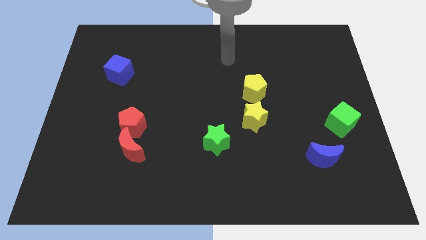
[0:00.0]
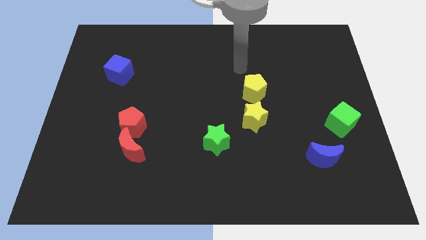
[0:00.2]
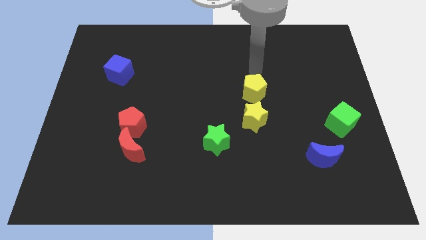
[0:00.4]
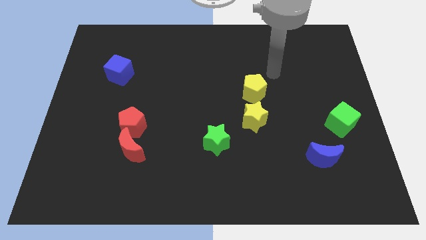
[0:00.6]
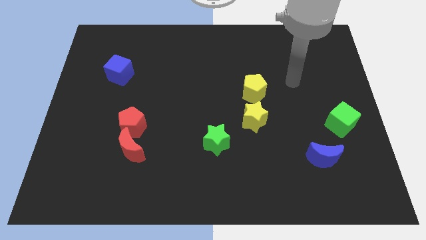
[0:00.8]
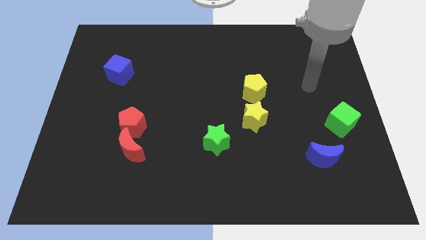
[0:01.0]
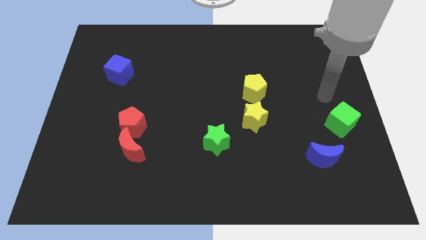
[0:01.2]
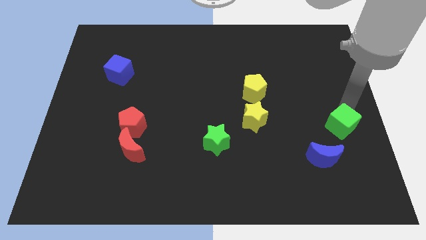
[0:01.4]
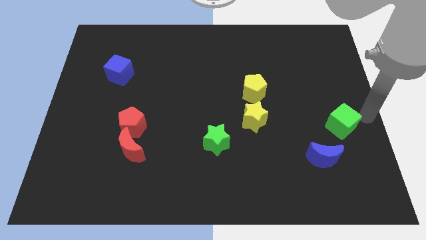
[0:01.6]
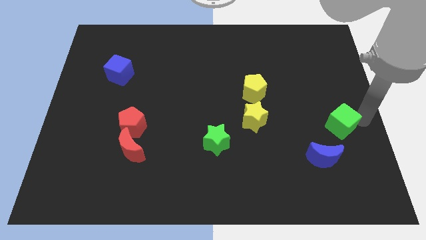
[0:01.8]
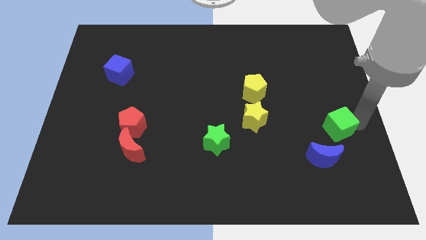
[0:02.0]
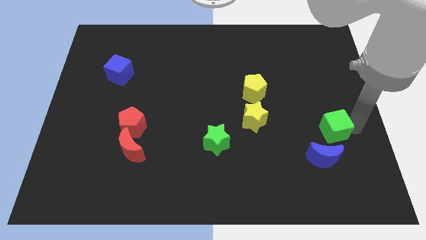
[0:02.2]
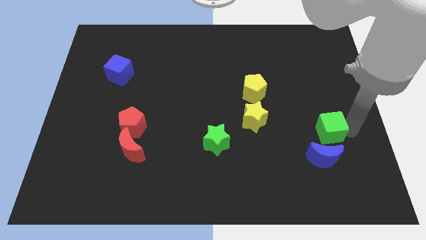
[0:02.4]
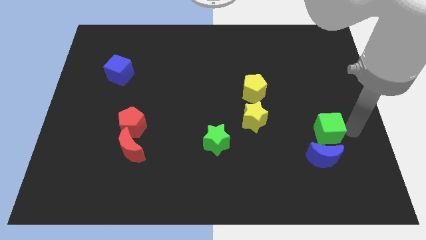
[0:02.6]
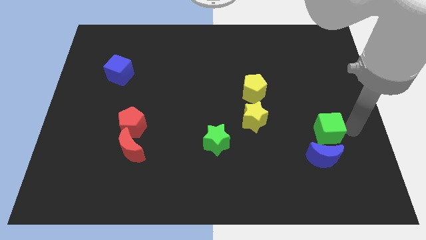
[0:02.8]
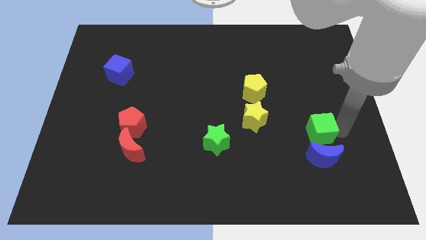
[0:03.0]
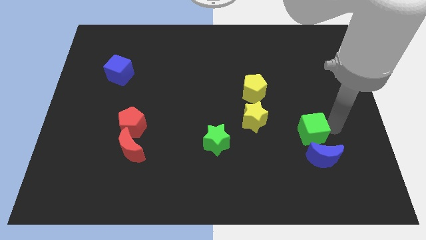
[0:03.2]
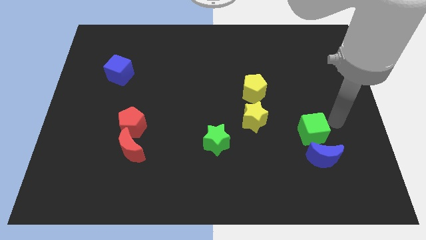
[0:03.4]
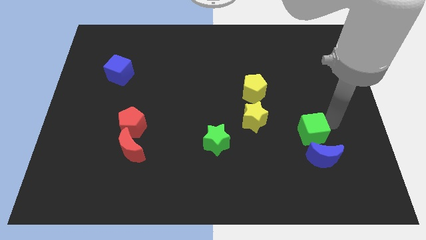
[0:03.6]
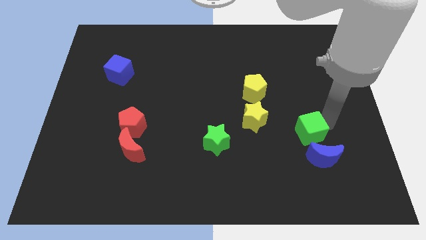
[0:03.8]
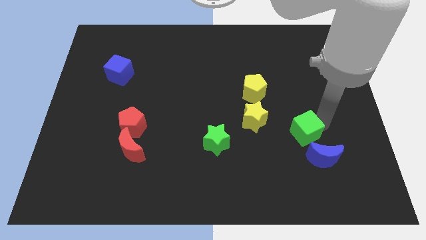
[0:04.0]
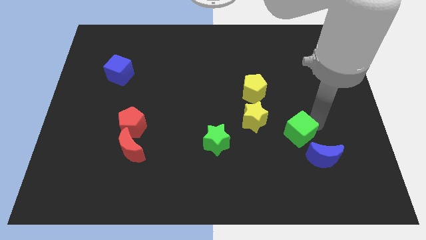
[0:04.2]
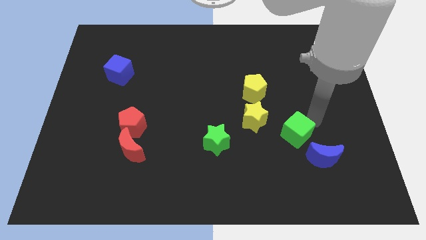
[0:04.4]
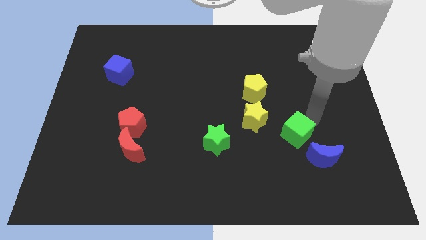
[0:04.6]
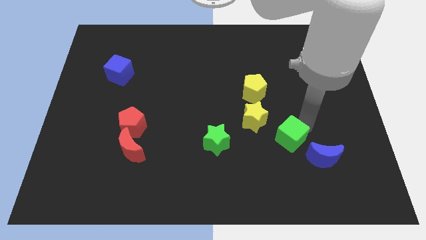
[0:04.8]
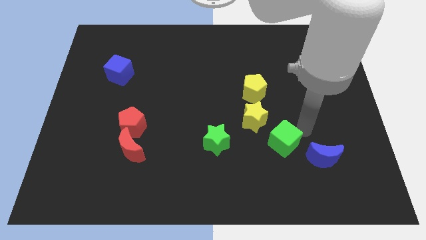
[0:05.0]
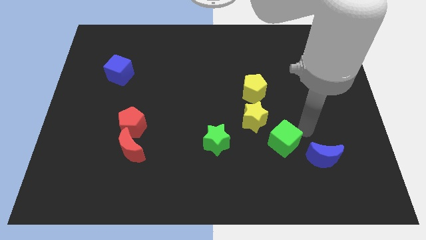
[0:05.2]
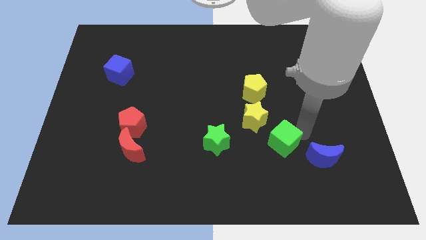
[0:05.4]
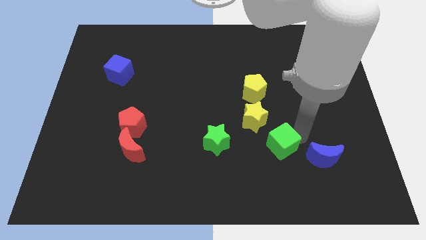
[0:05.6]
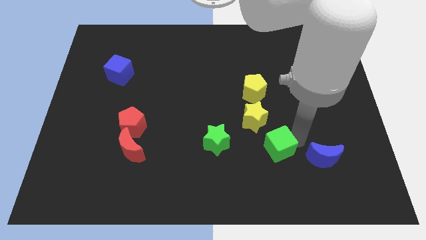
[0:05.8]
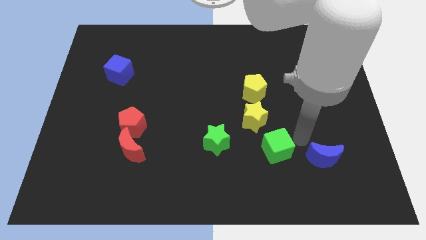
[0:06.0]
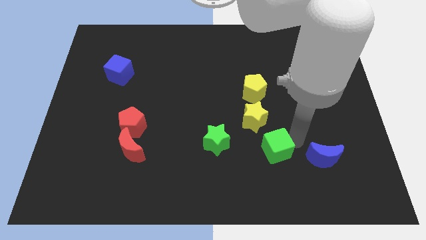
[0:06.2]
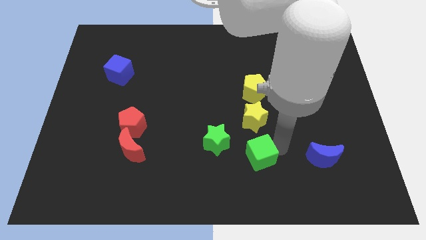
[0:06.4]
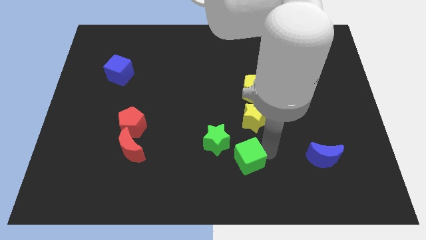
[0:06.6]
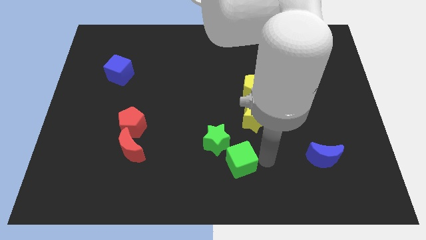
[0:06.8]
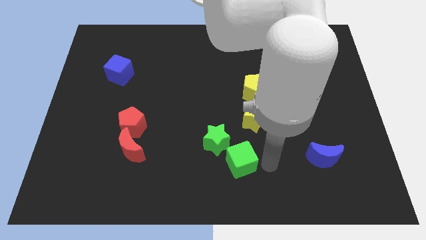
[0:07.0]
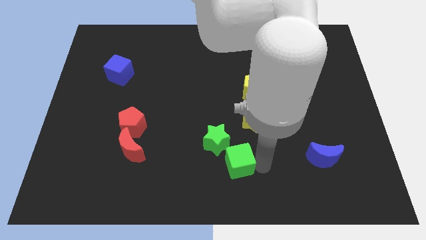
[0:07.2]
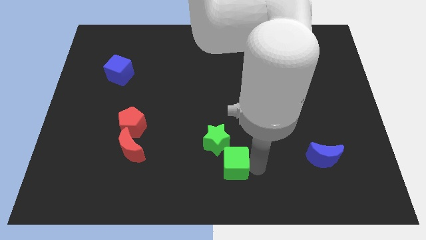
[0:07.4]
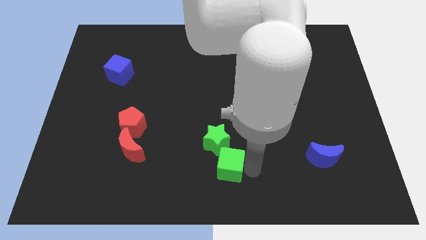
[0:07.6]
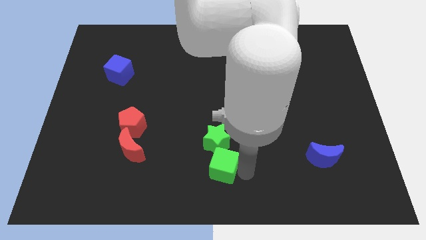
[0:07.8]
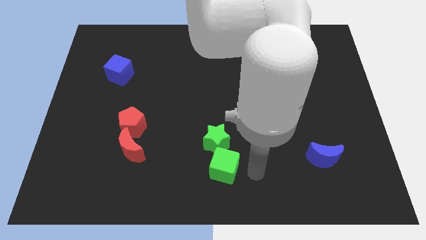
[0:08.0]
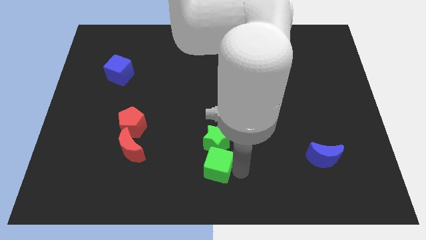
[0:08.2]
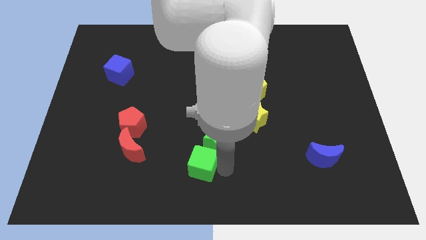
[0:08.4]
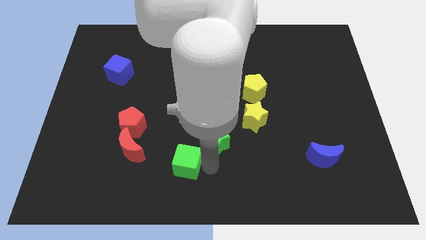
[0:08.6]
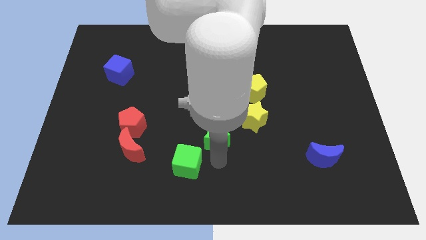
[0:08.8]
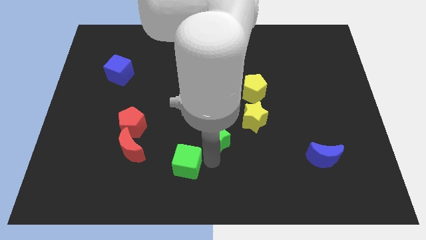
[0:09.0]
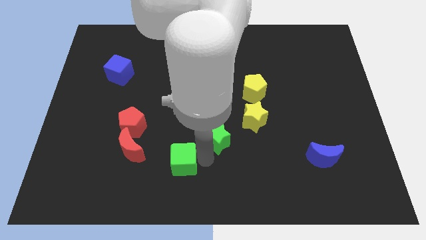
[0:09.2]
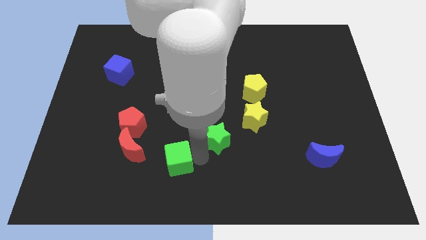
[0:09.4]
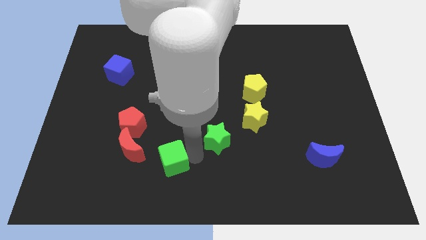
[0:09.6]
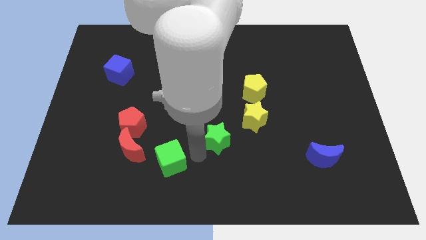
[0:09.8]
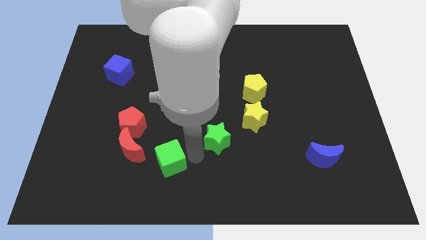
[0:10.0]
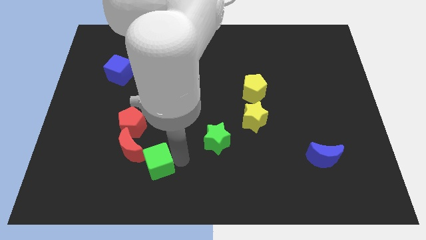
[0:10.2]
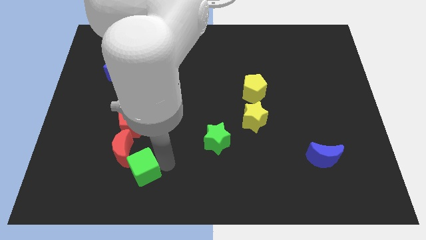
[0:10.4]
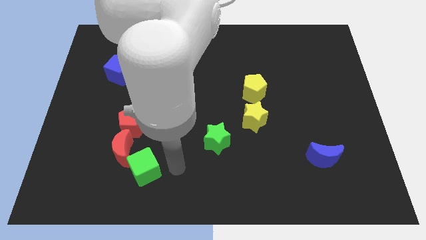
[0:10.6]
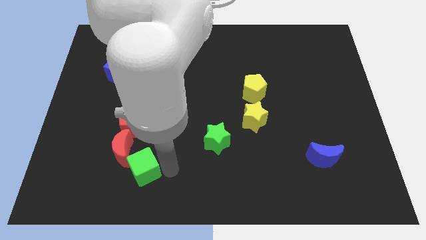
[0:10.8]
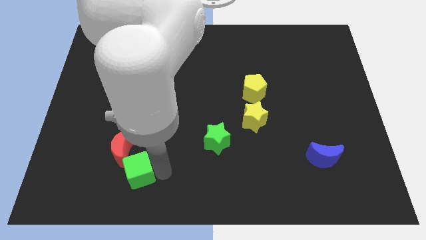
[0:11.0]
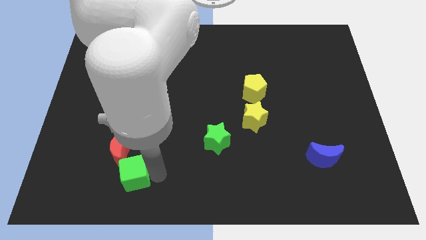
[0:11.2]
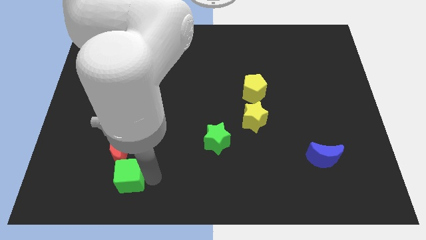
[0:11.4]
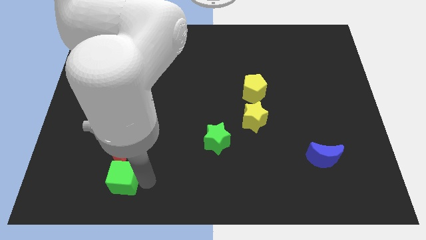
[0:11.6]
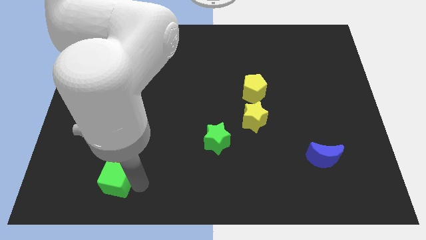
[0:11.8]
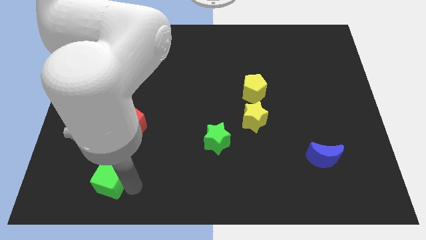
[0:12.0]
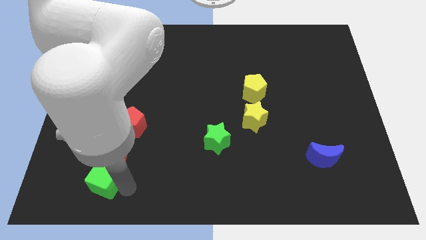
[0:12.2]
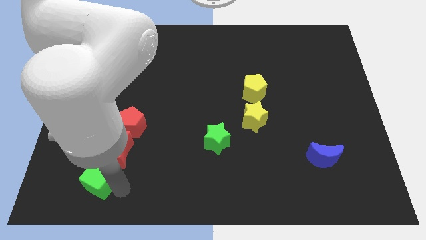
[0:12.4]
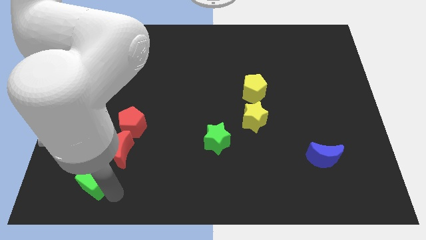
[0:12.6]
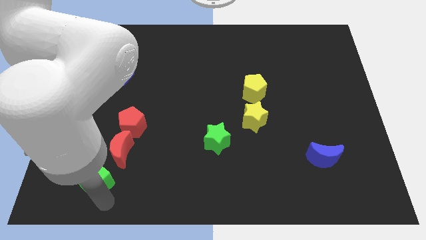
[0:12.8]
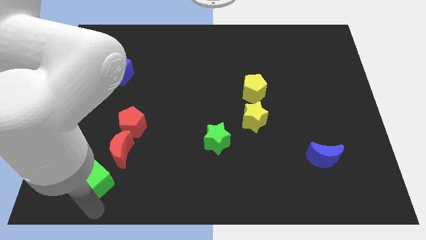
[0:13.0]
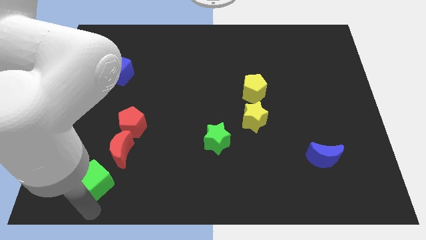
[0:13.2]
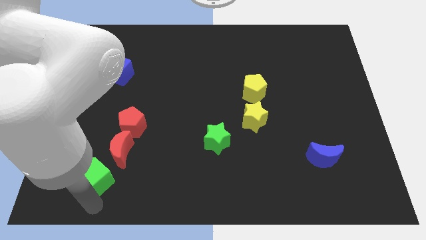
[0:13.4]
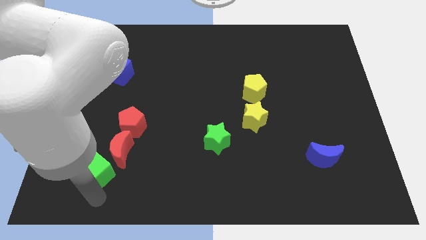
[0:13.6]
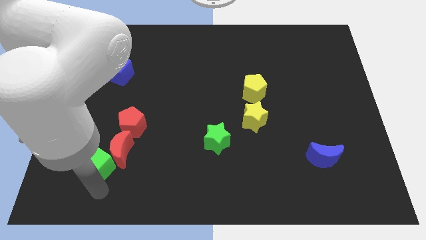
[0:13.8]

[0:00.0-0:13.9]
slide the green cube diagonally down and to the left of the red pentagon
